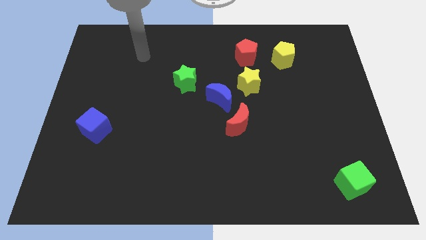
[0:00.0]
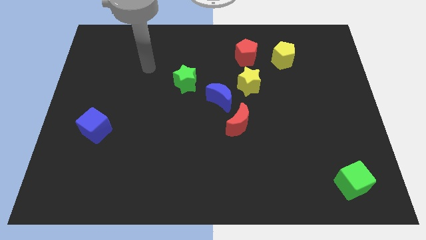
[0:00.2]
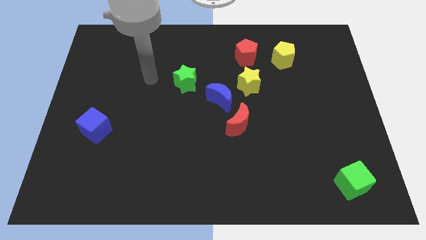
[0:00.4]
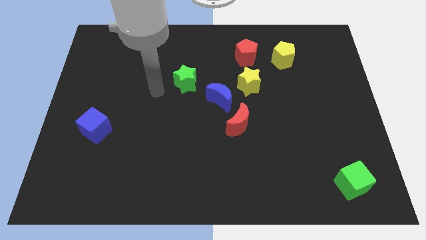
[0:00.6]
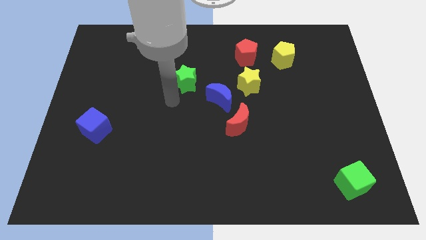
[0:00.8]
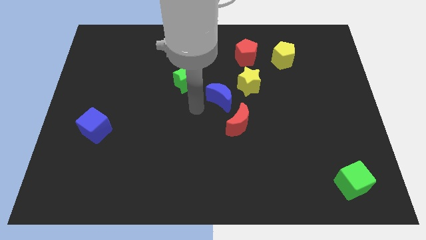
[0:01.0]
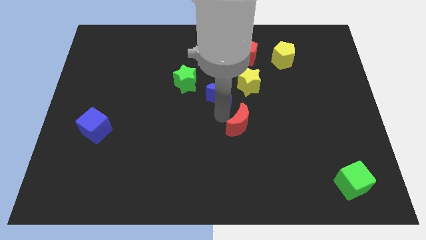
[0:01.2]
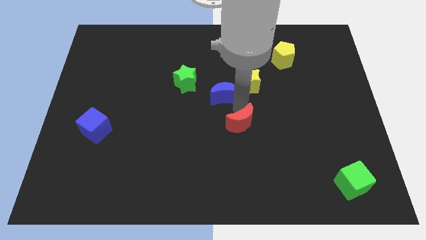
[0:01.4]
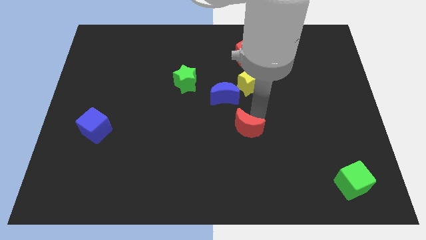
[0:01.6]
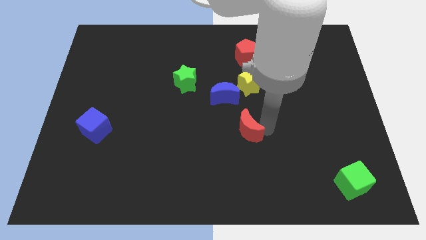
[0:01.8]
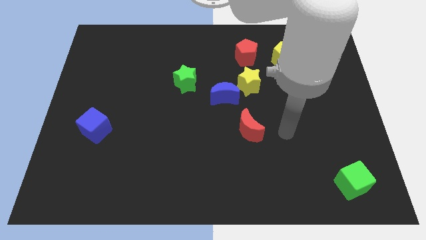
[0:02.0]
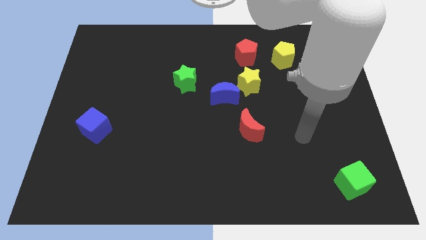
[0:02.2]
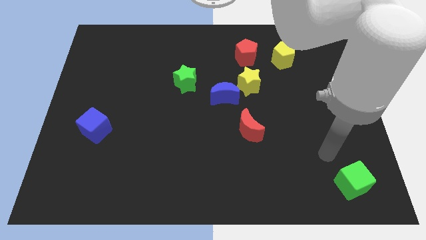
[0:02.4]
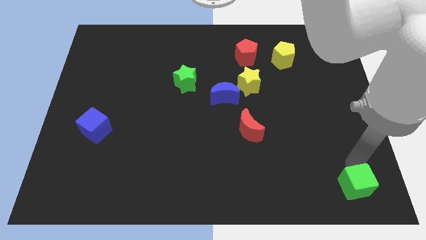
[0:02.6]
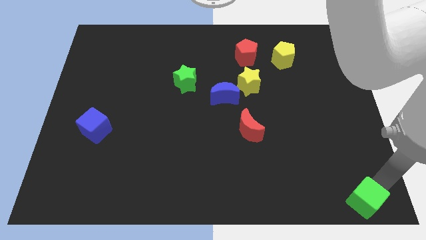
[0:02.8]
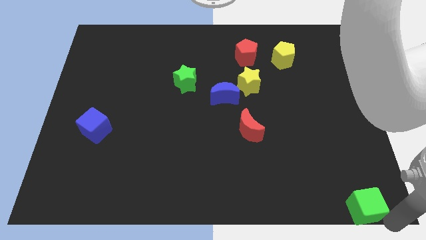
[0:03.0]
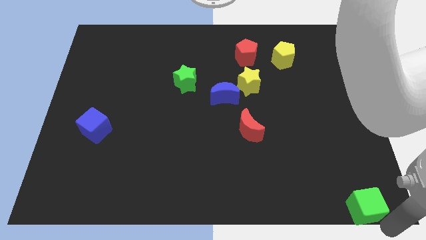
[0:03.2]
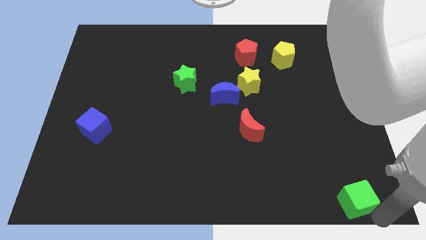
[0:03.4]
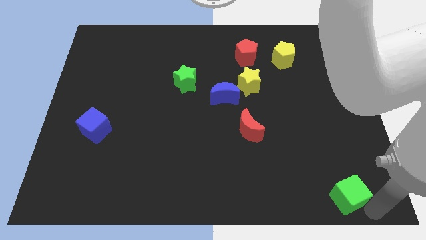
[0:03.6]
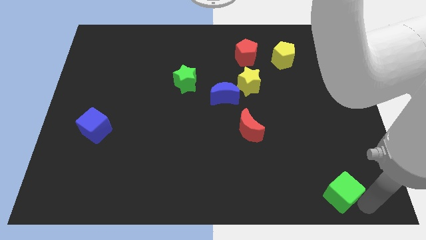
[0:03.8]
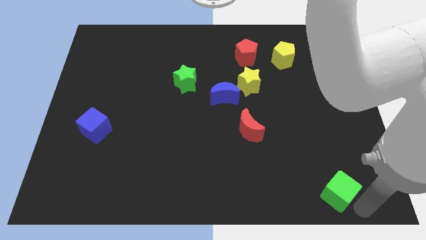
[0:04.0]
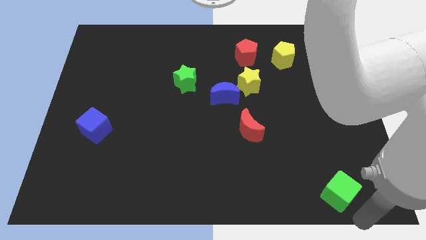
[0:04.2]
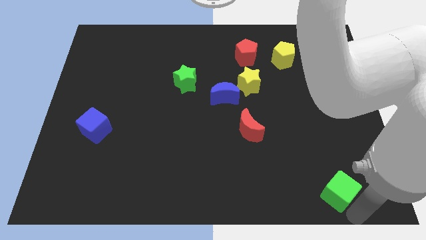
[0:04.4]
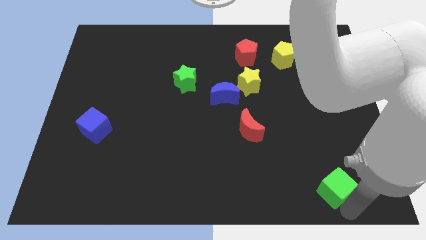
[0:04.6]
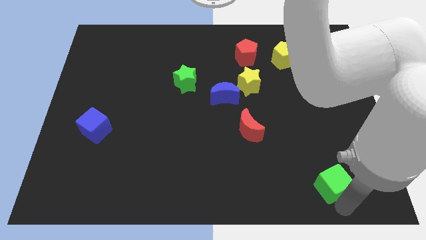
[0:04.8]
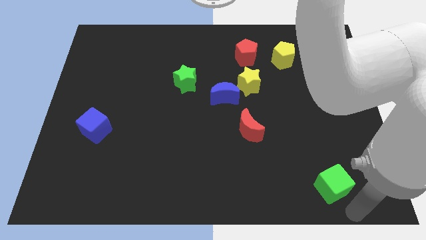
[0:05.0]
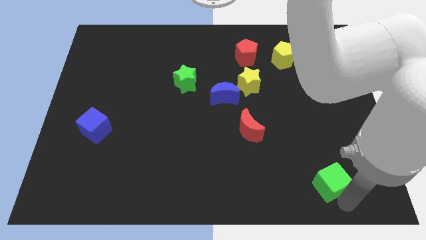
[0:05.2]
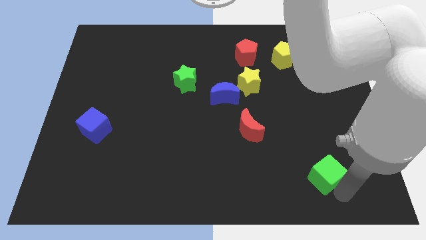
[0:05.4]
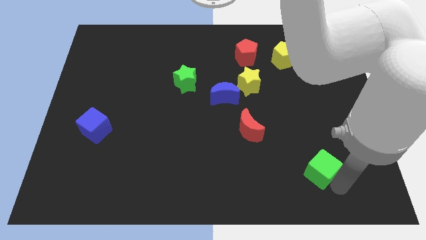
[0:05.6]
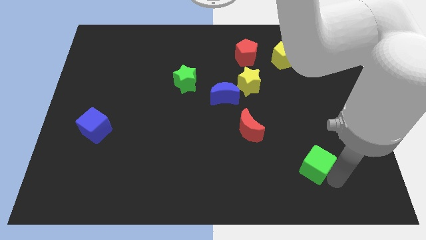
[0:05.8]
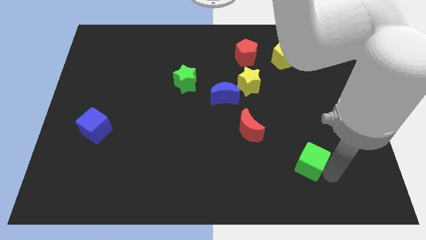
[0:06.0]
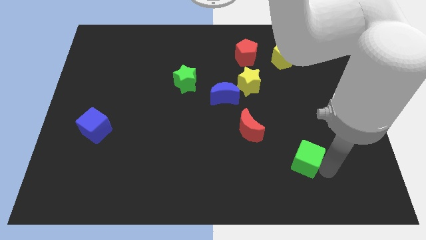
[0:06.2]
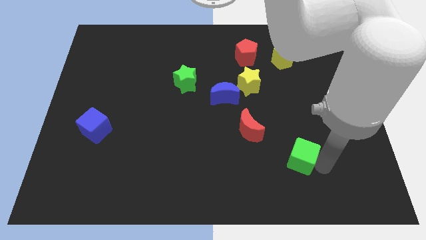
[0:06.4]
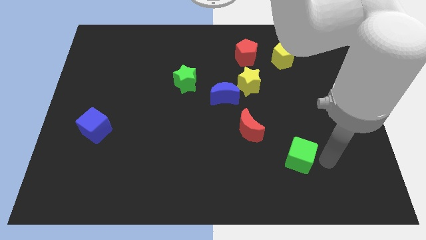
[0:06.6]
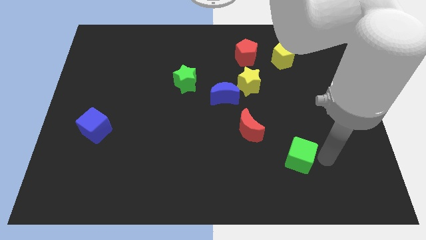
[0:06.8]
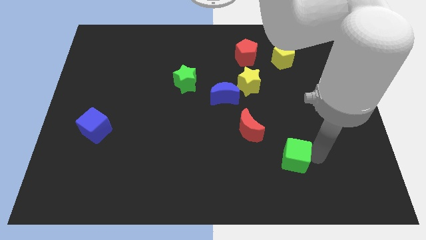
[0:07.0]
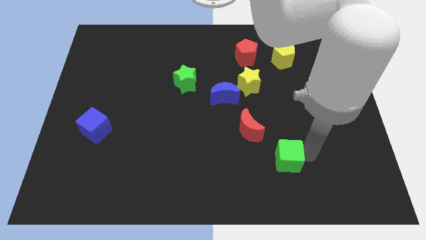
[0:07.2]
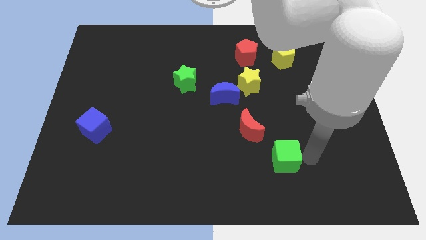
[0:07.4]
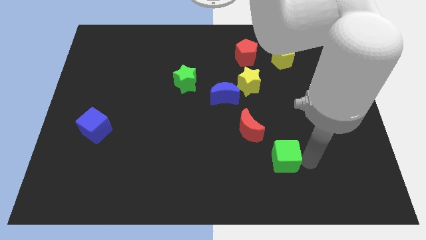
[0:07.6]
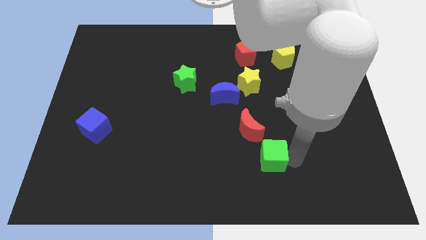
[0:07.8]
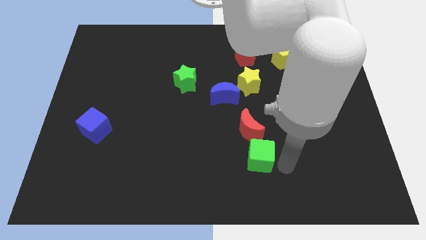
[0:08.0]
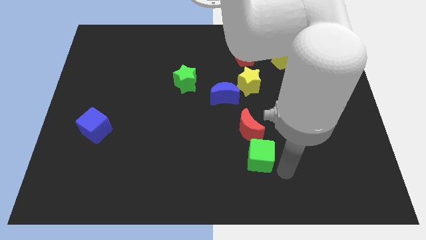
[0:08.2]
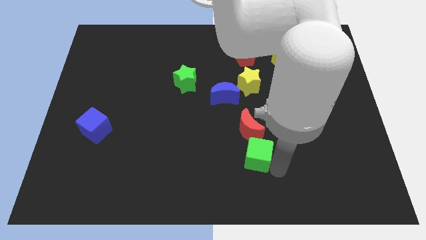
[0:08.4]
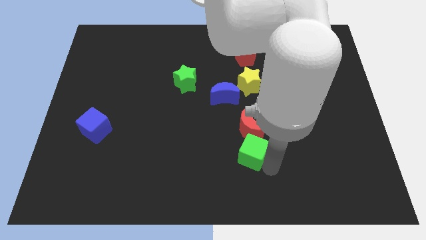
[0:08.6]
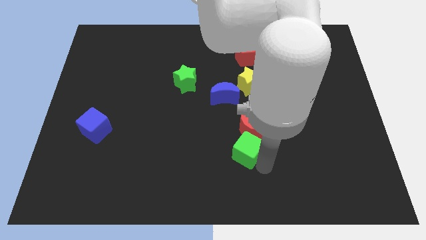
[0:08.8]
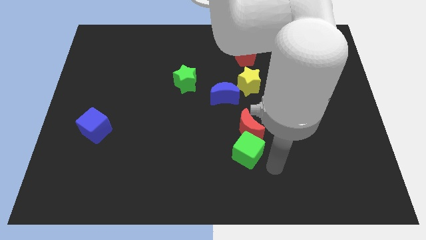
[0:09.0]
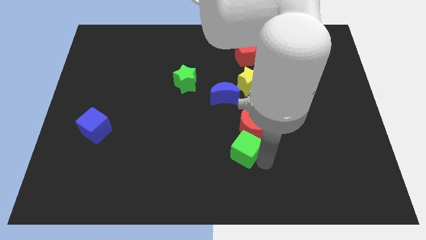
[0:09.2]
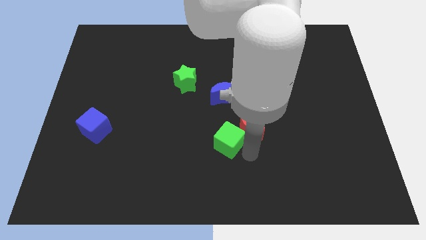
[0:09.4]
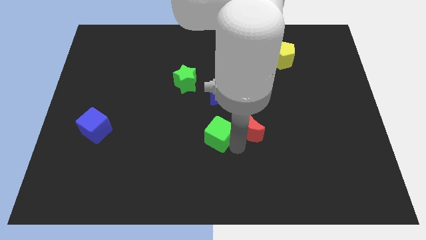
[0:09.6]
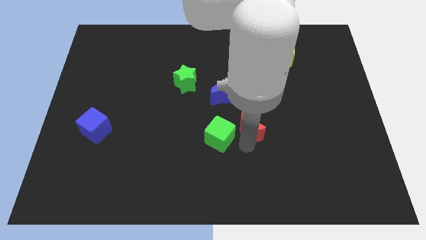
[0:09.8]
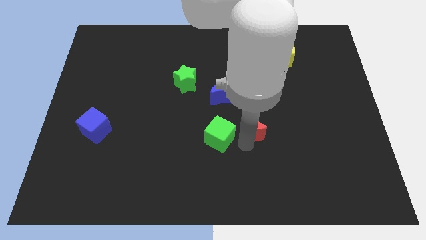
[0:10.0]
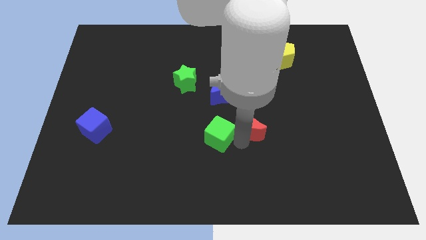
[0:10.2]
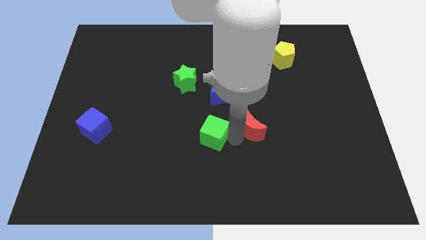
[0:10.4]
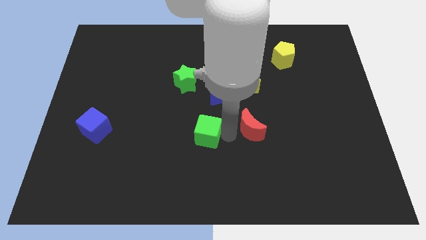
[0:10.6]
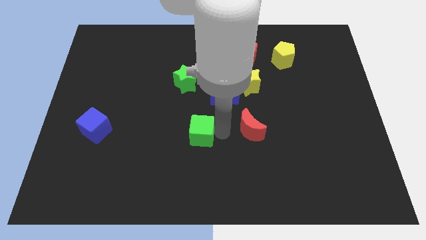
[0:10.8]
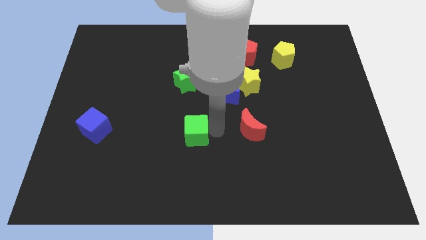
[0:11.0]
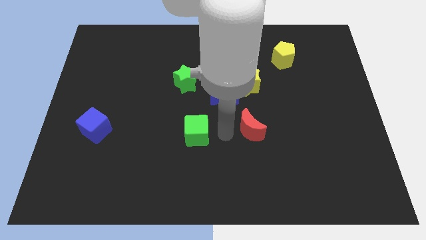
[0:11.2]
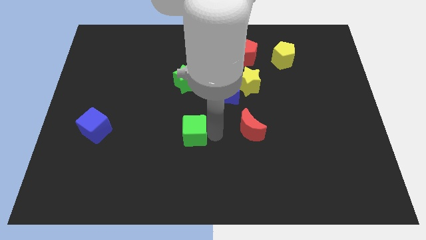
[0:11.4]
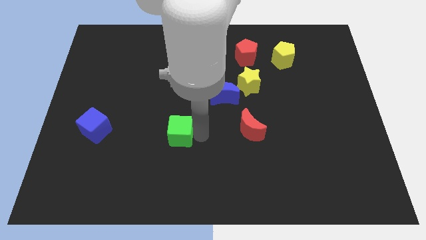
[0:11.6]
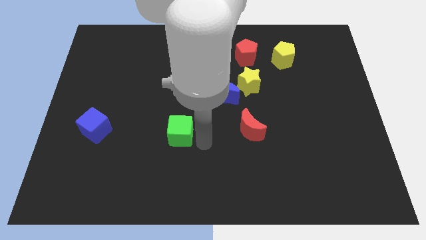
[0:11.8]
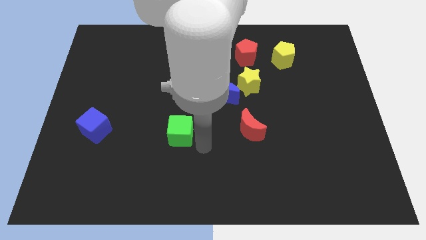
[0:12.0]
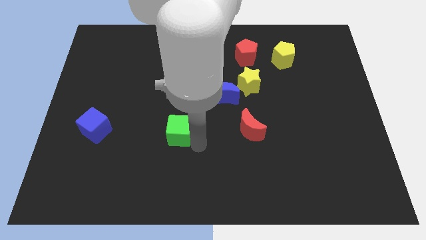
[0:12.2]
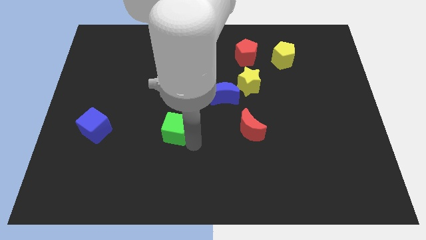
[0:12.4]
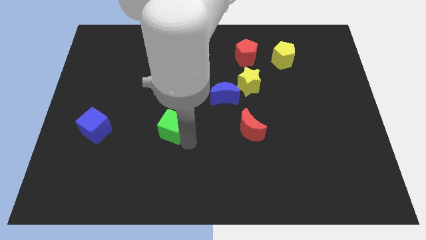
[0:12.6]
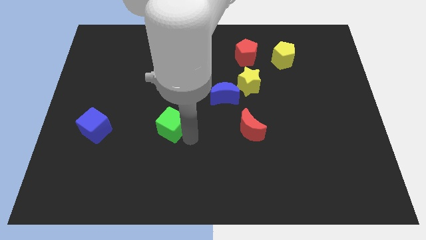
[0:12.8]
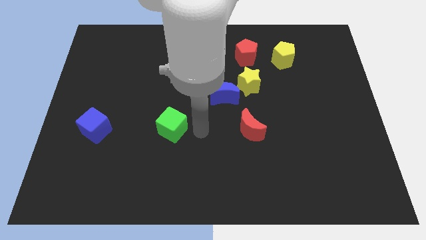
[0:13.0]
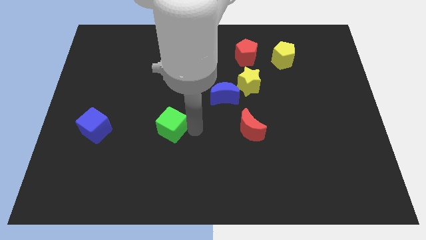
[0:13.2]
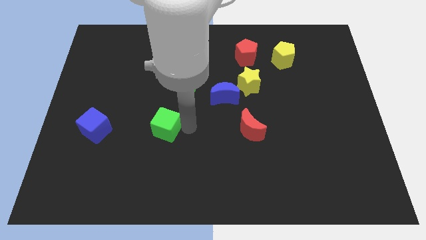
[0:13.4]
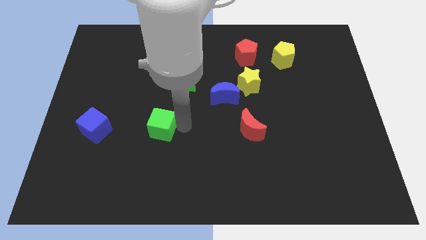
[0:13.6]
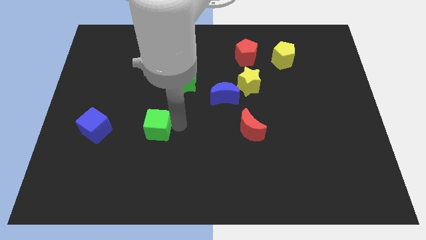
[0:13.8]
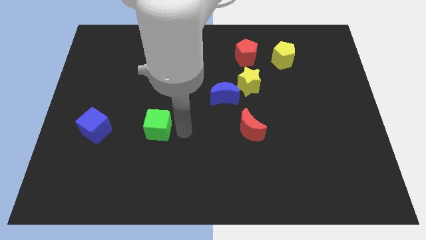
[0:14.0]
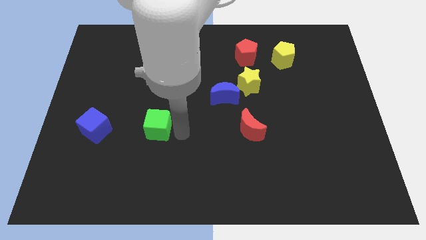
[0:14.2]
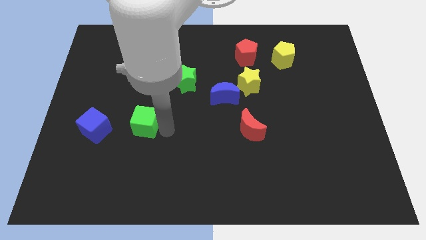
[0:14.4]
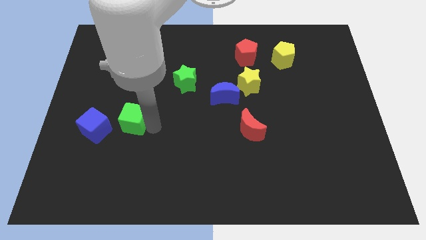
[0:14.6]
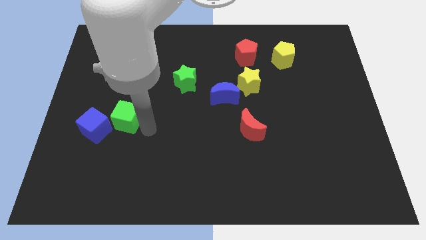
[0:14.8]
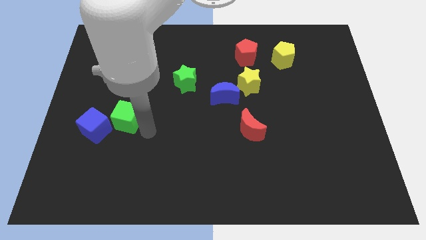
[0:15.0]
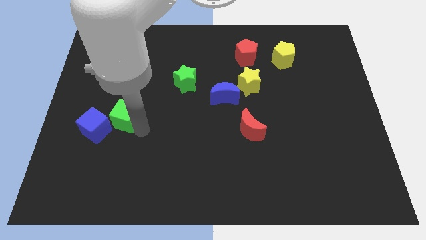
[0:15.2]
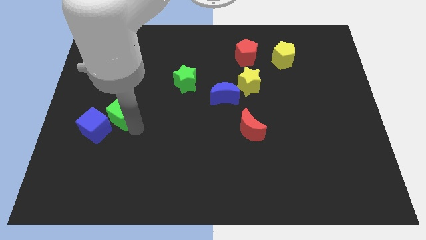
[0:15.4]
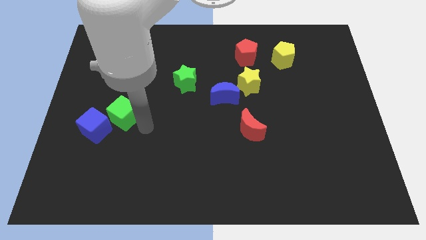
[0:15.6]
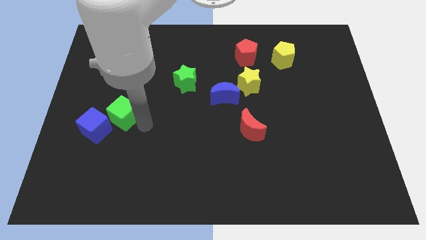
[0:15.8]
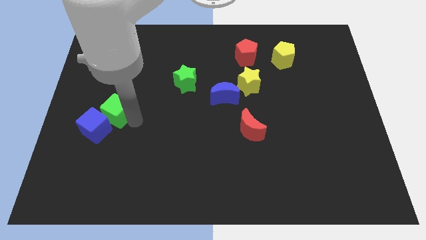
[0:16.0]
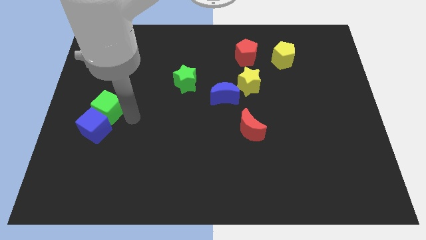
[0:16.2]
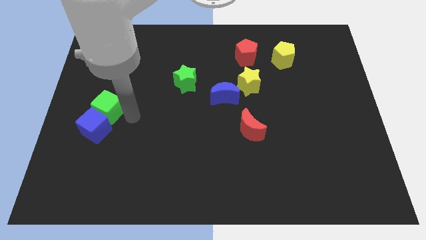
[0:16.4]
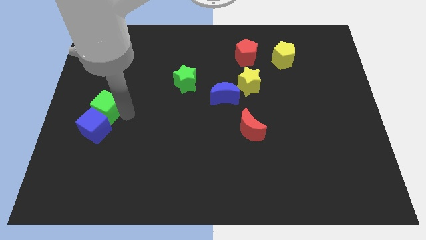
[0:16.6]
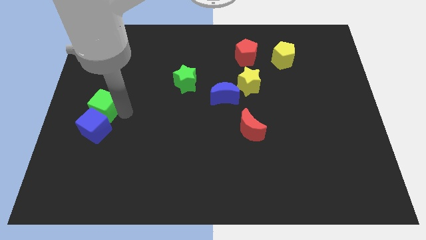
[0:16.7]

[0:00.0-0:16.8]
put the green cube to the center left
